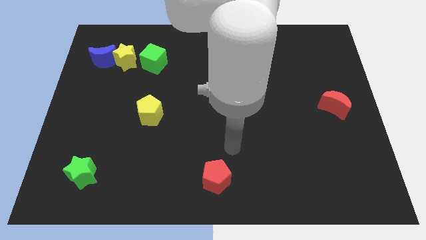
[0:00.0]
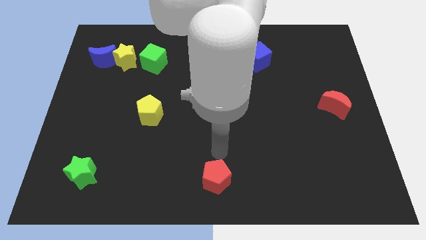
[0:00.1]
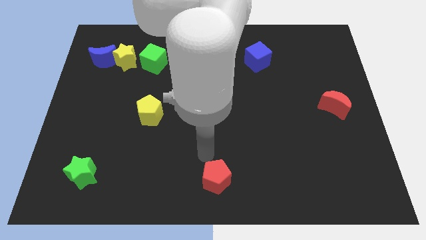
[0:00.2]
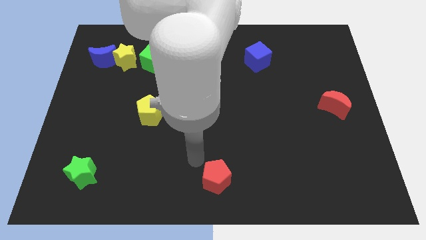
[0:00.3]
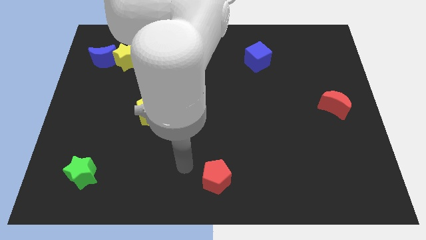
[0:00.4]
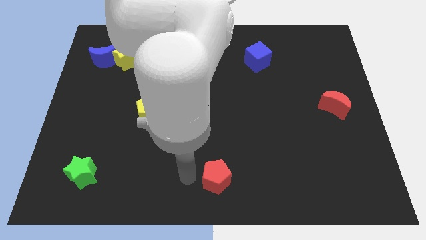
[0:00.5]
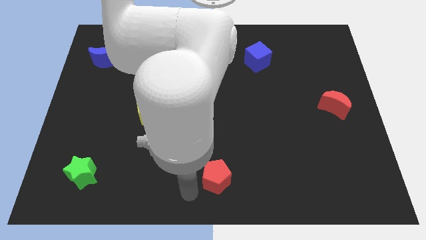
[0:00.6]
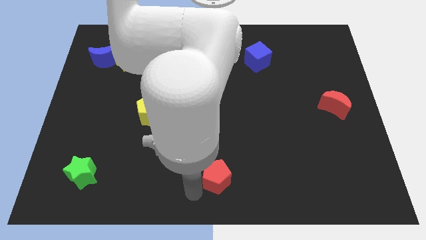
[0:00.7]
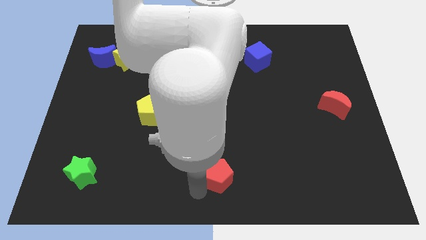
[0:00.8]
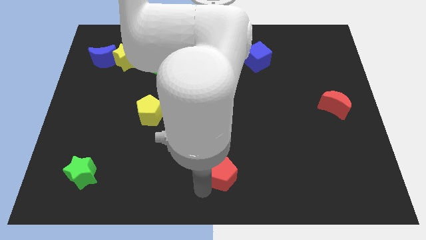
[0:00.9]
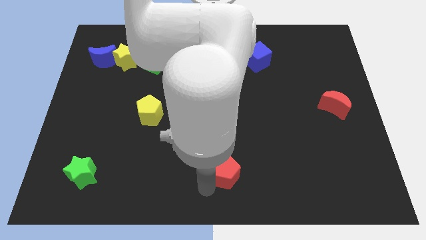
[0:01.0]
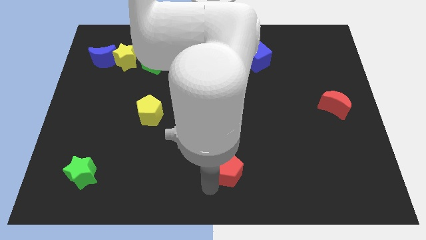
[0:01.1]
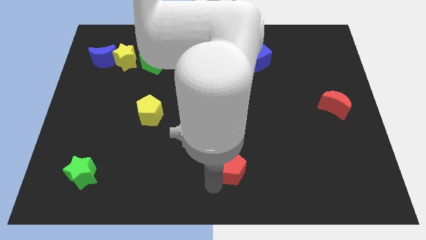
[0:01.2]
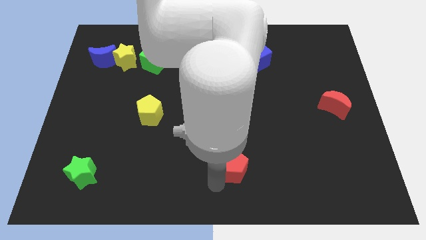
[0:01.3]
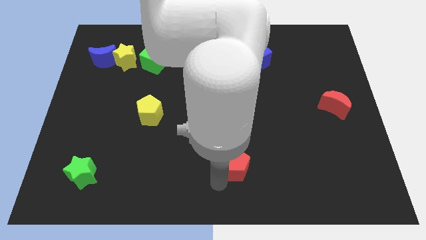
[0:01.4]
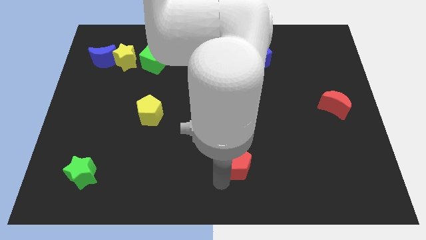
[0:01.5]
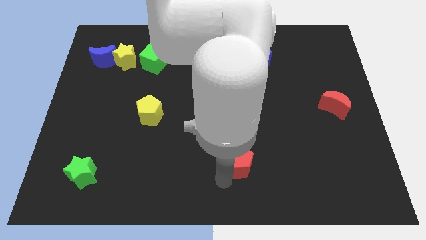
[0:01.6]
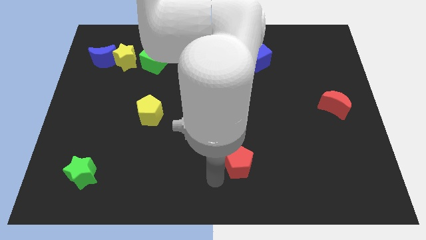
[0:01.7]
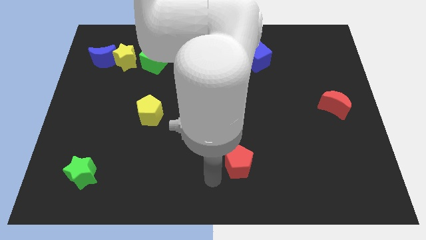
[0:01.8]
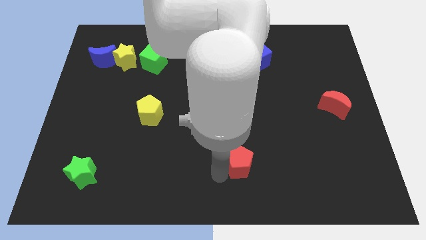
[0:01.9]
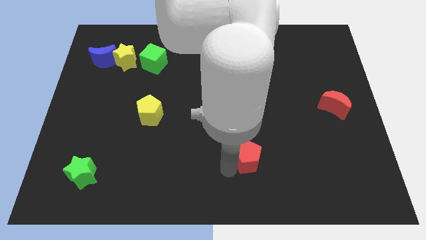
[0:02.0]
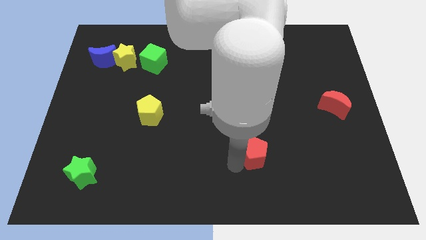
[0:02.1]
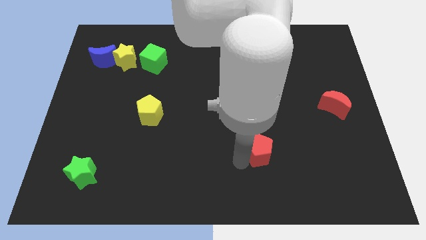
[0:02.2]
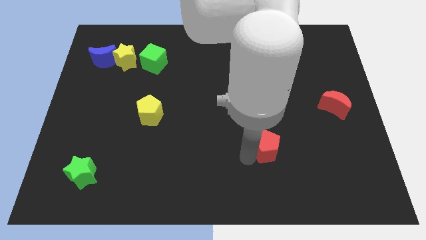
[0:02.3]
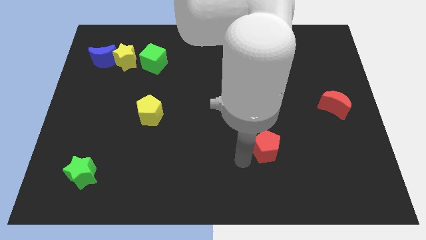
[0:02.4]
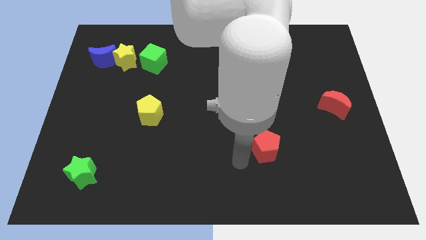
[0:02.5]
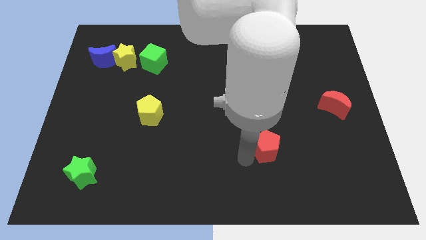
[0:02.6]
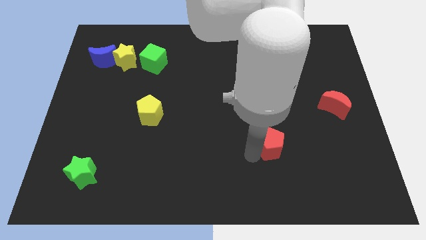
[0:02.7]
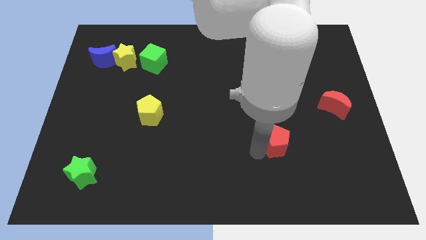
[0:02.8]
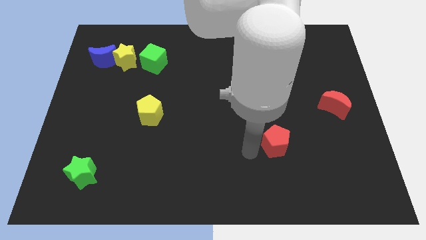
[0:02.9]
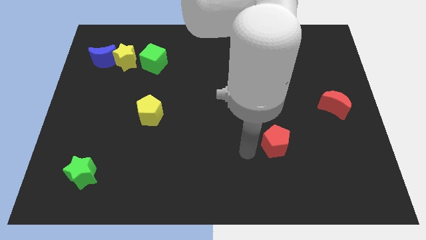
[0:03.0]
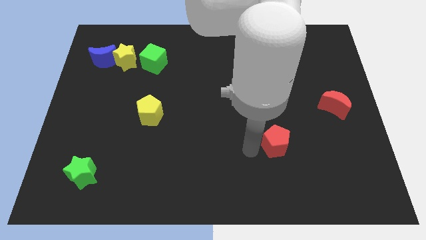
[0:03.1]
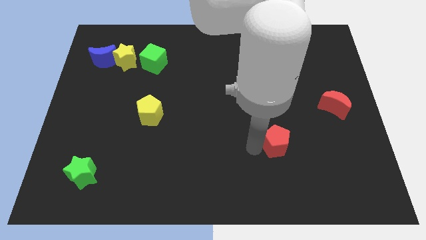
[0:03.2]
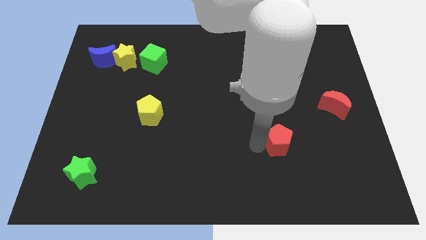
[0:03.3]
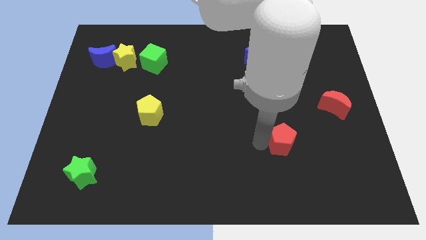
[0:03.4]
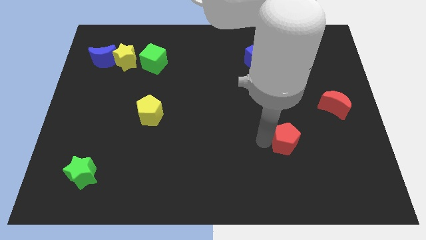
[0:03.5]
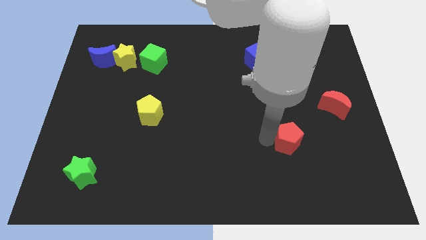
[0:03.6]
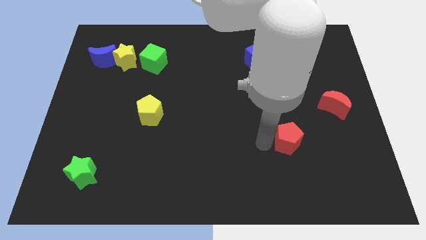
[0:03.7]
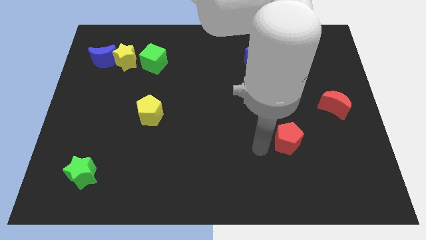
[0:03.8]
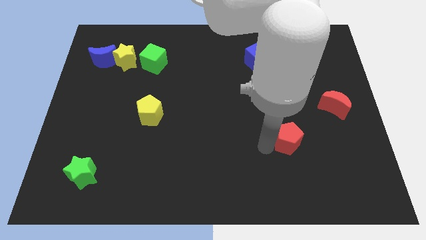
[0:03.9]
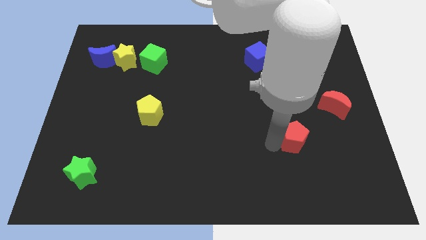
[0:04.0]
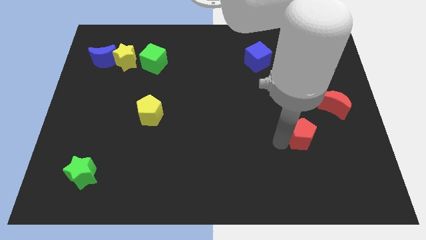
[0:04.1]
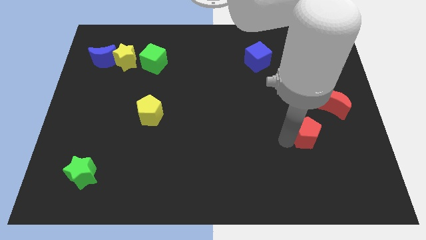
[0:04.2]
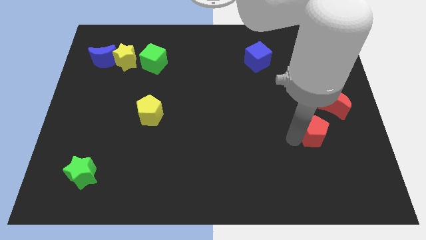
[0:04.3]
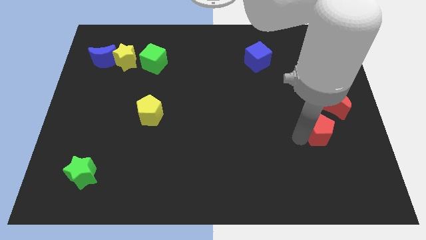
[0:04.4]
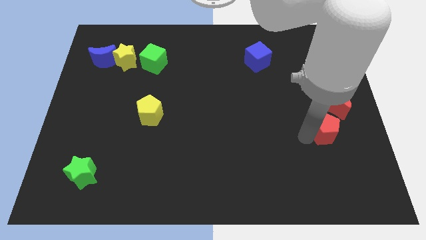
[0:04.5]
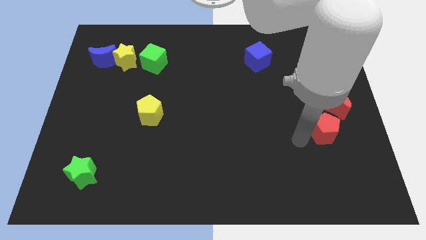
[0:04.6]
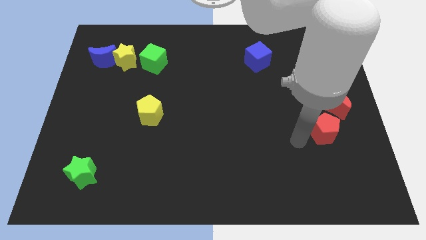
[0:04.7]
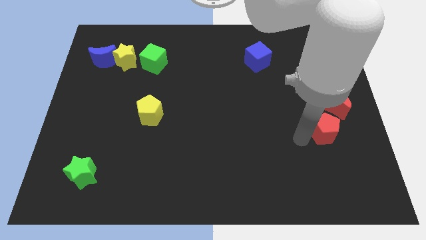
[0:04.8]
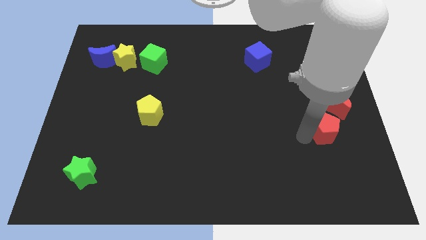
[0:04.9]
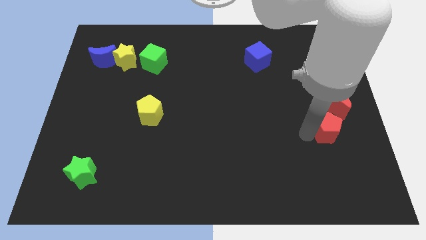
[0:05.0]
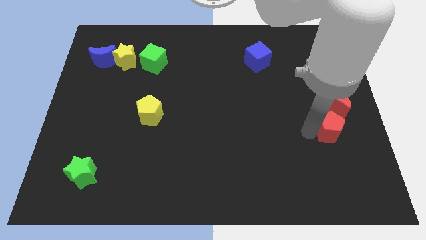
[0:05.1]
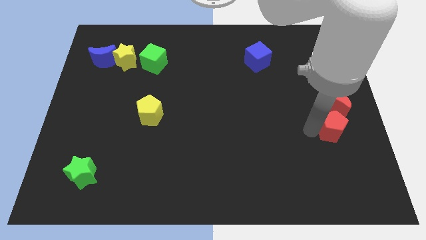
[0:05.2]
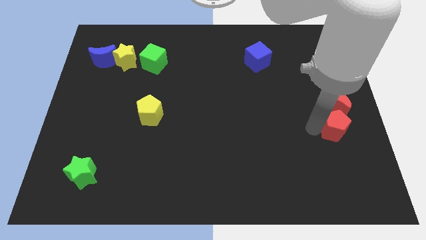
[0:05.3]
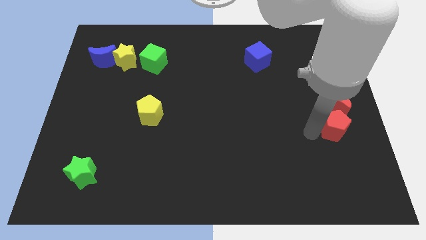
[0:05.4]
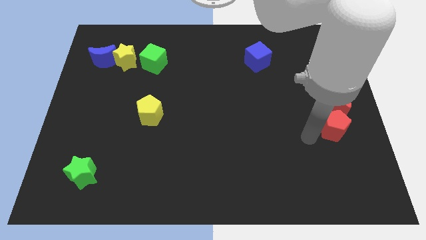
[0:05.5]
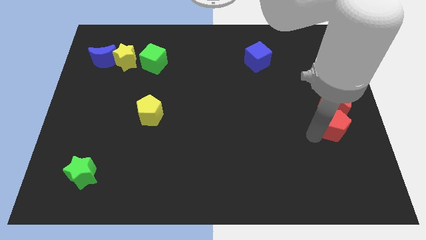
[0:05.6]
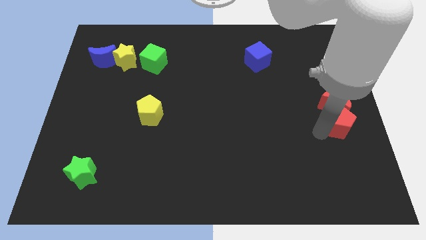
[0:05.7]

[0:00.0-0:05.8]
move the red pentagon to the right side
